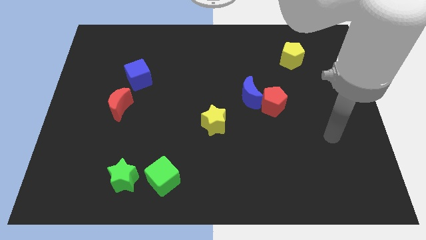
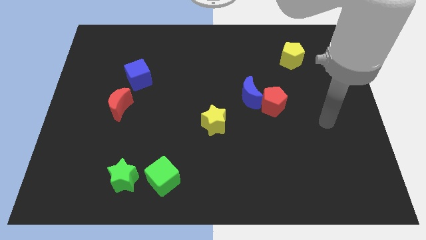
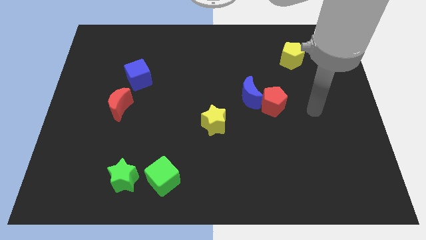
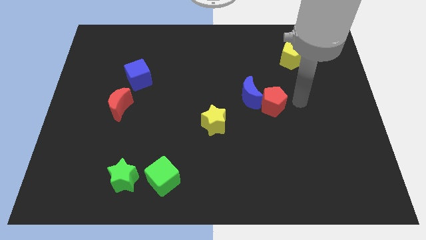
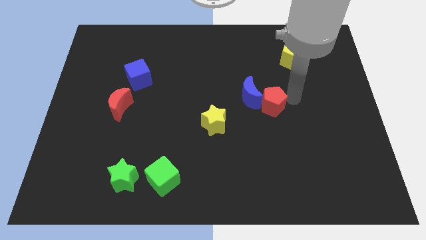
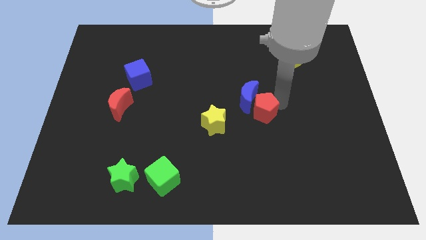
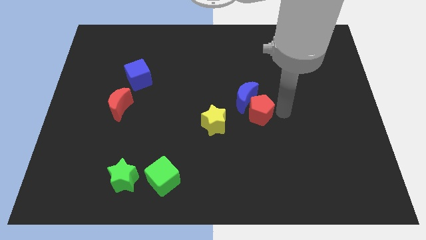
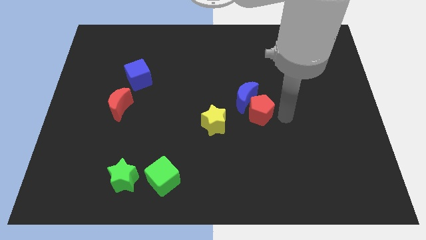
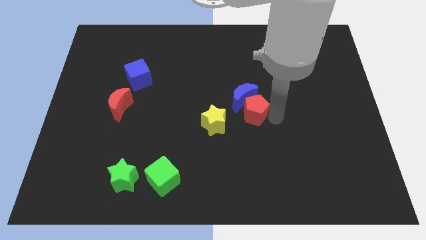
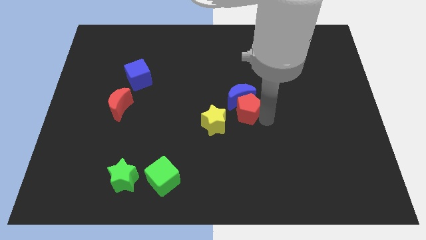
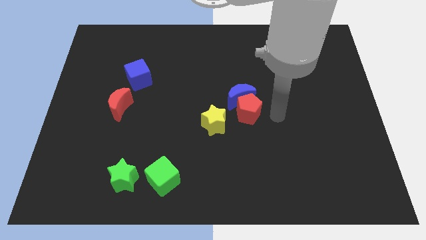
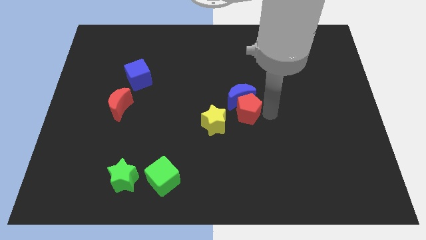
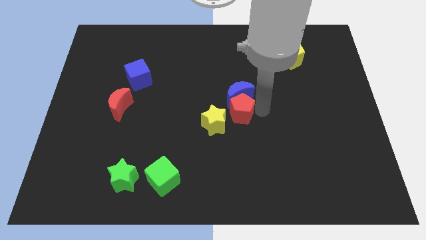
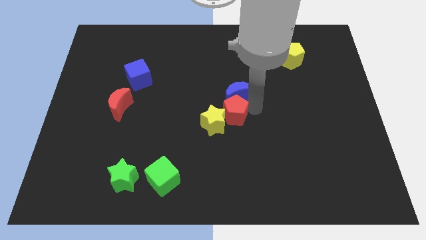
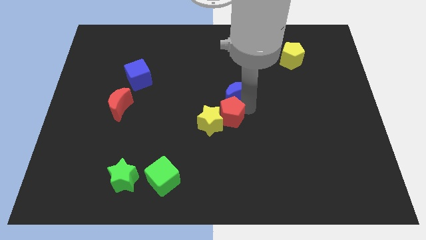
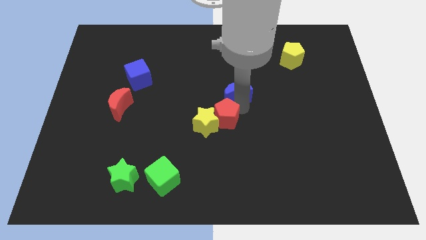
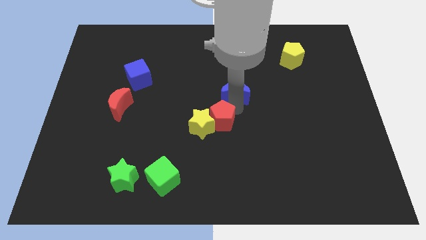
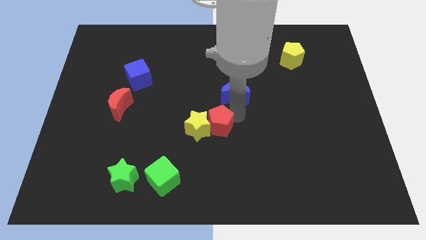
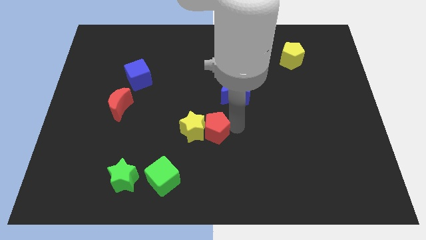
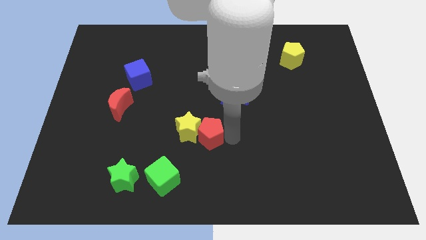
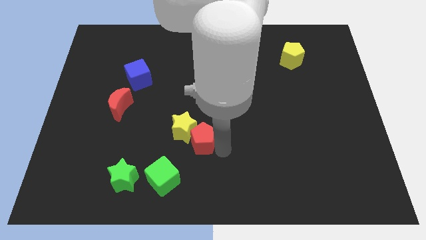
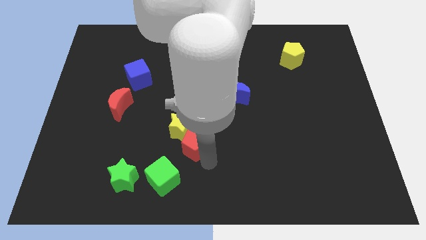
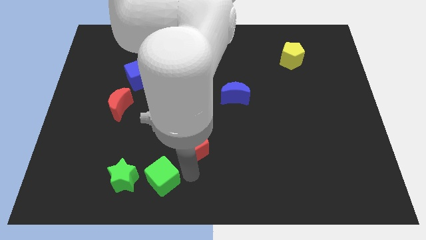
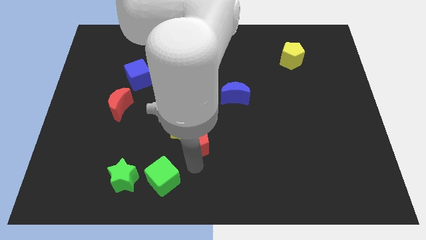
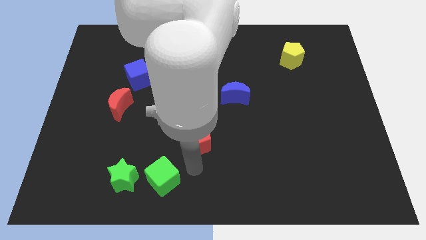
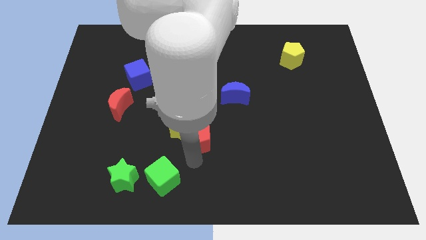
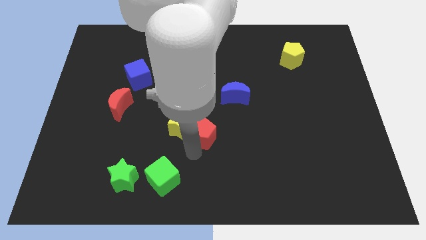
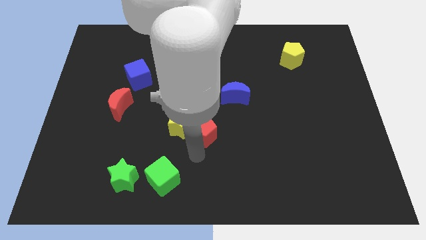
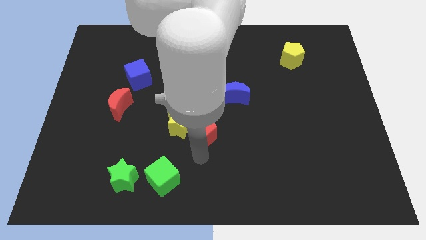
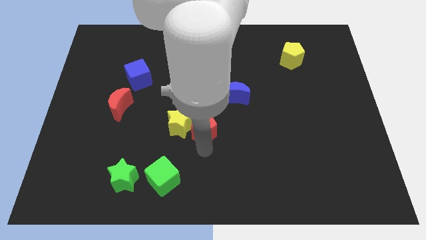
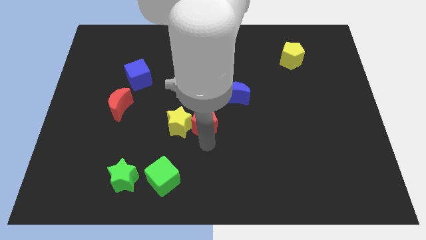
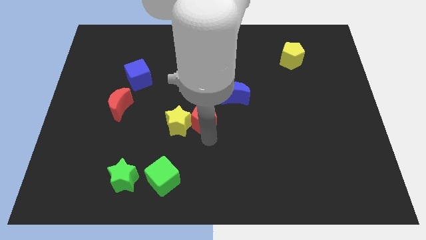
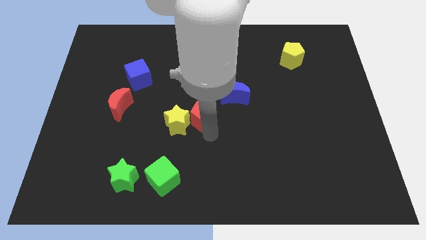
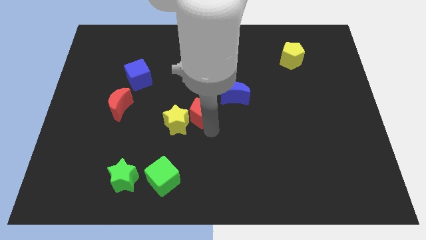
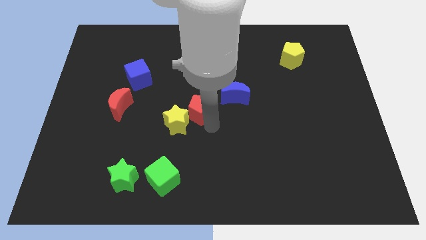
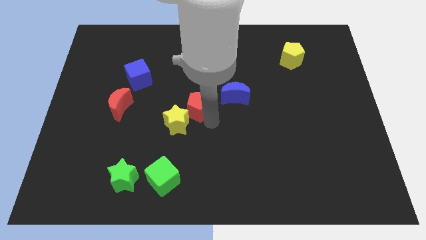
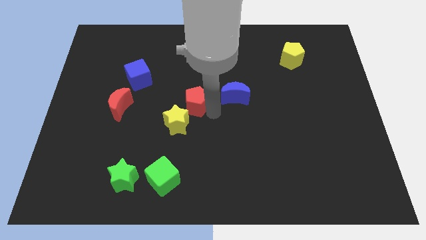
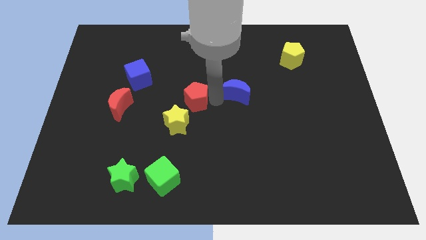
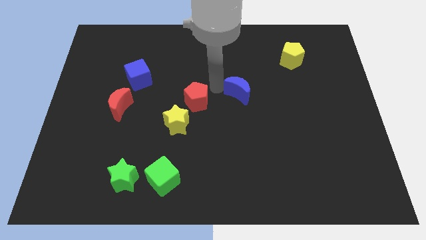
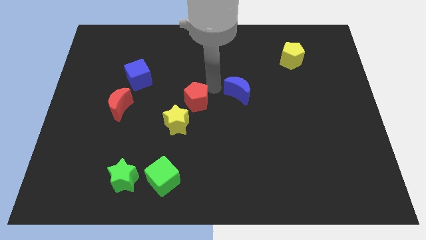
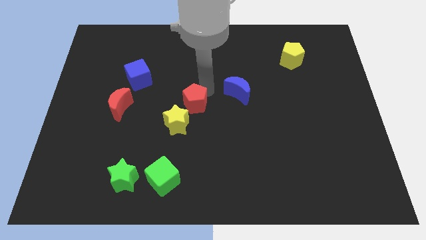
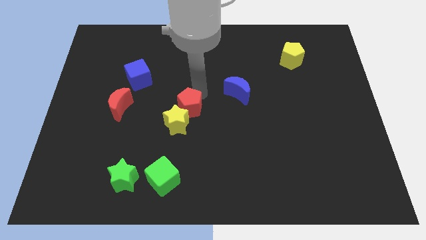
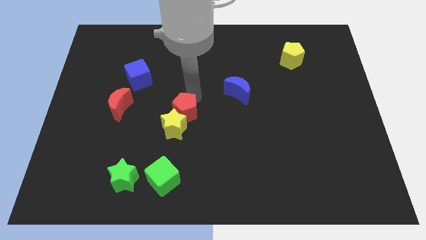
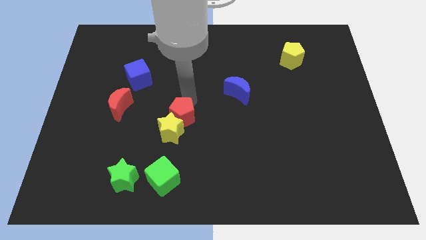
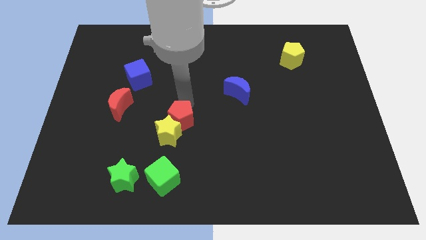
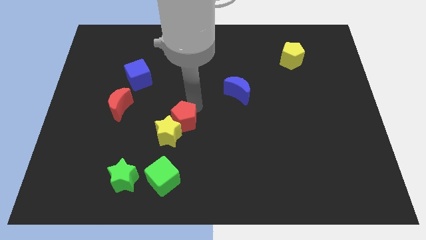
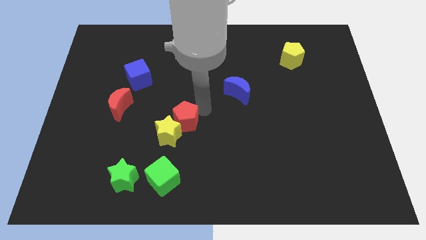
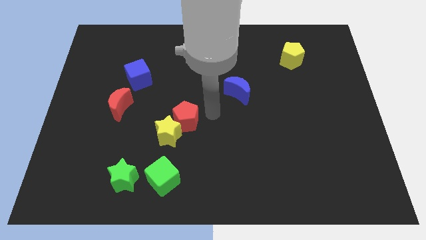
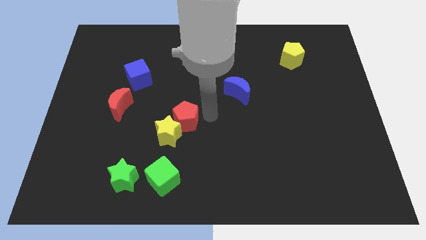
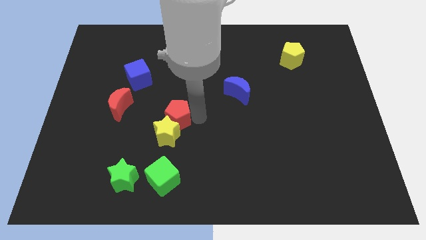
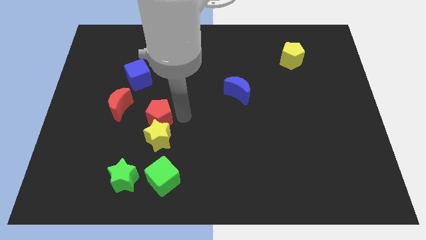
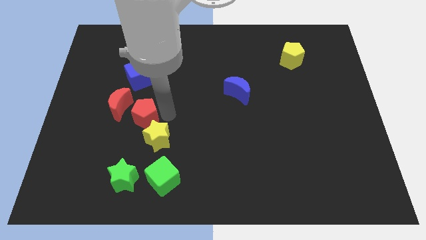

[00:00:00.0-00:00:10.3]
put the red pentagon to the top side of the green star

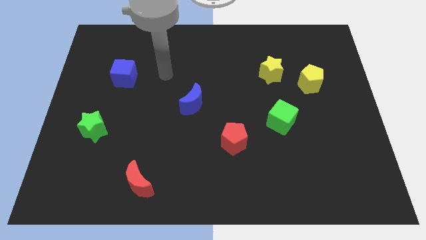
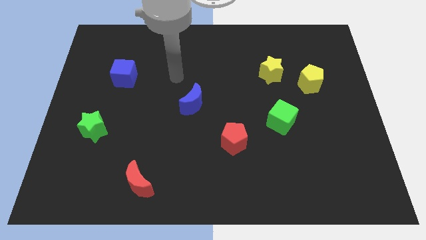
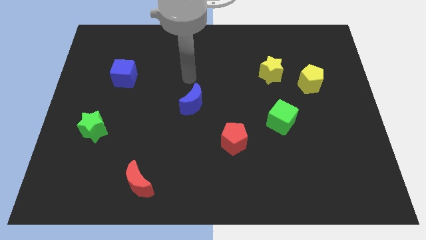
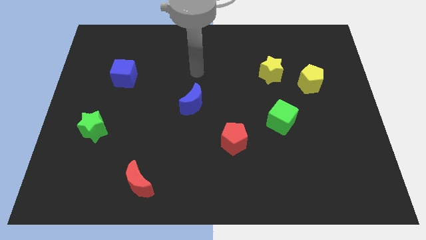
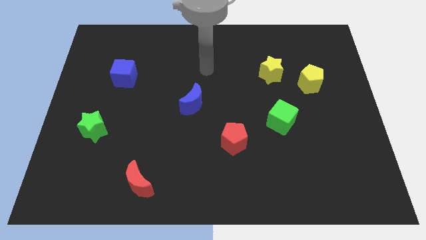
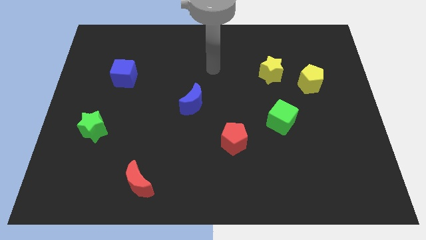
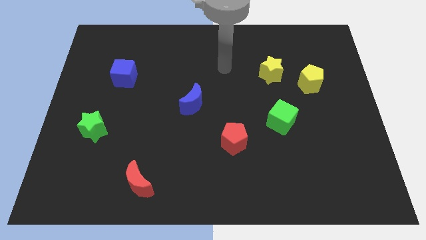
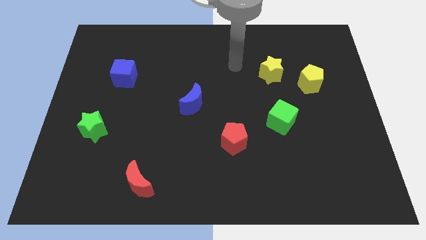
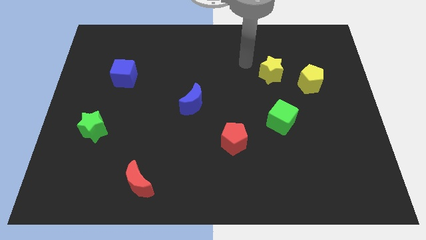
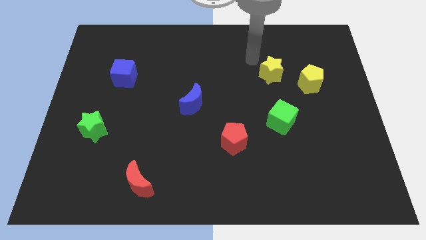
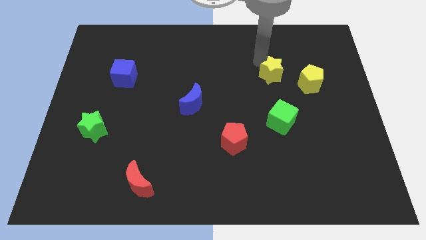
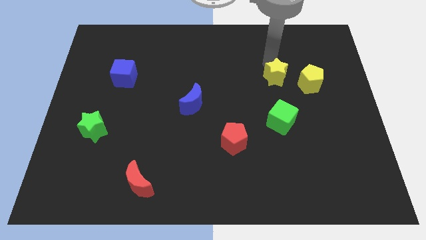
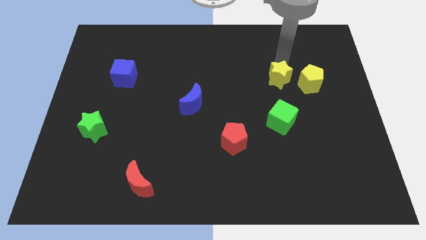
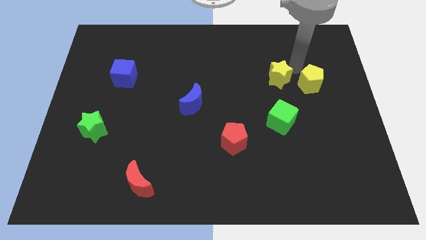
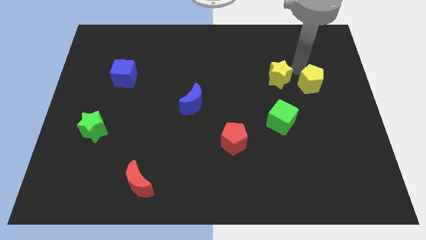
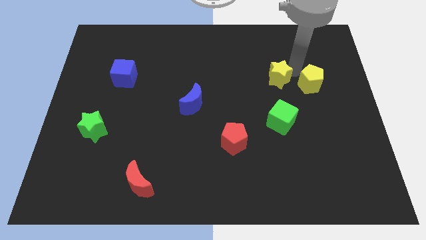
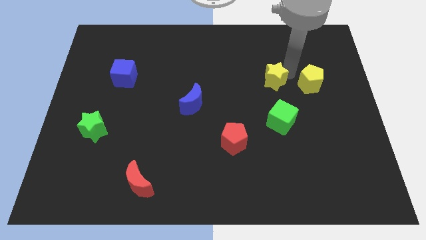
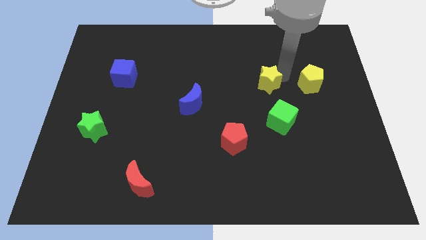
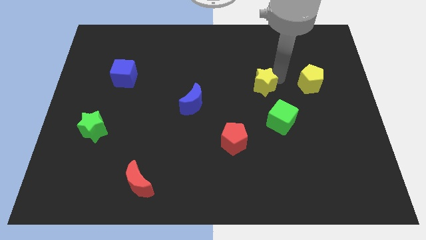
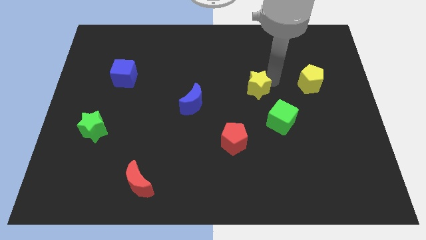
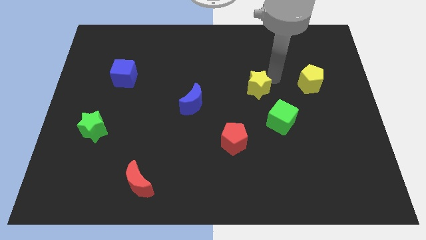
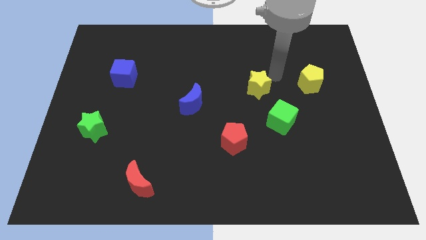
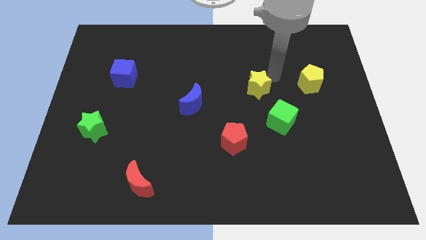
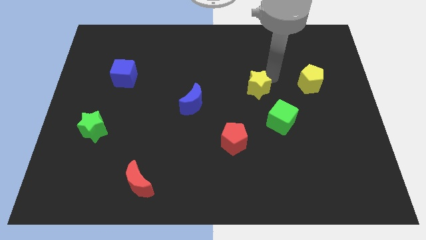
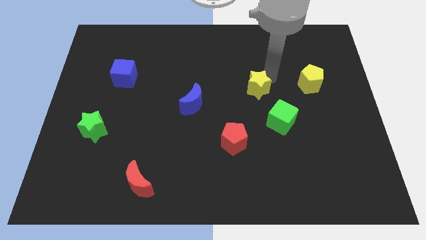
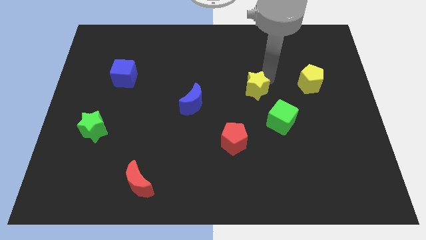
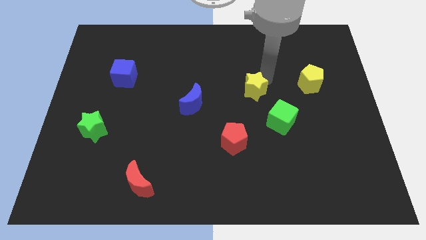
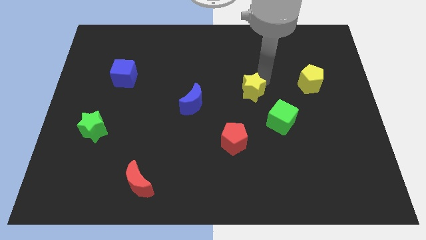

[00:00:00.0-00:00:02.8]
push the yellow star just right of the blue moon
